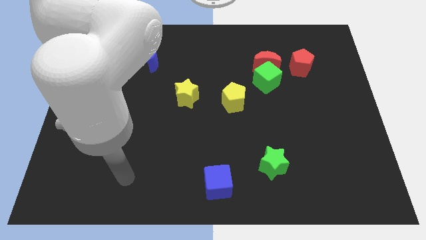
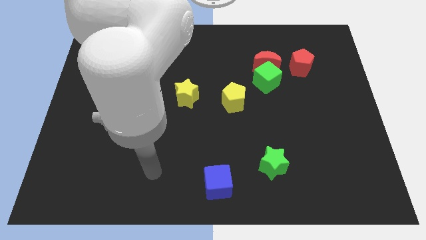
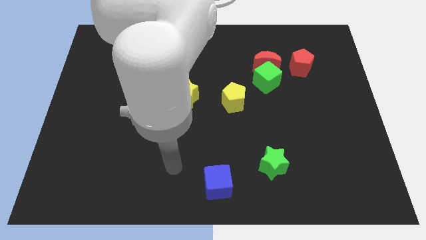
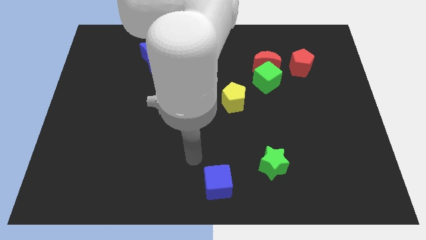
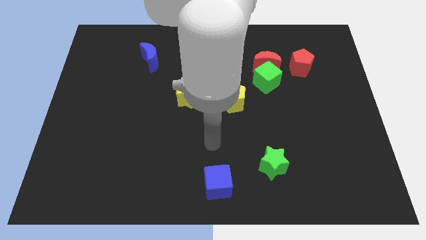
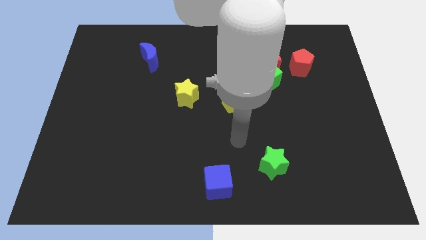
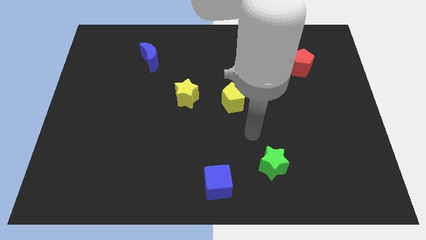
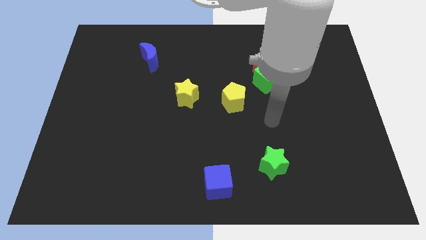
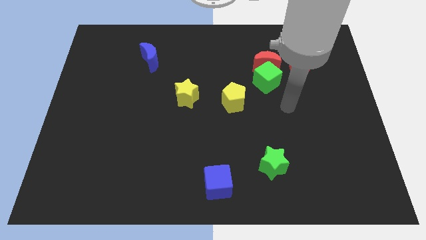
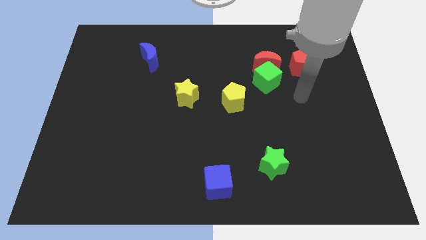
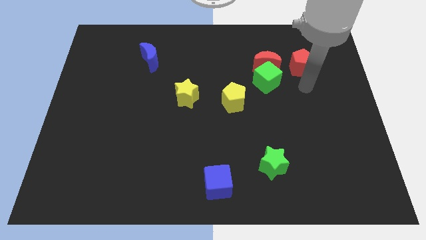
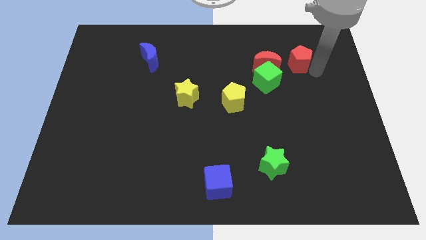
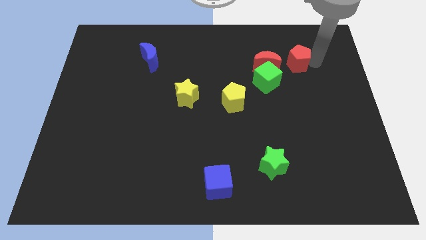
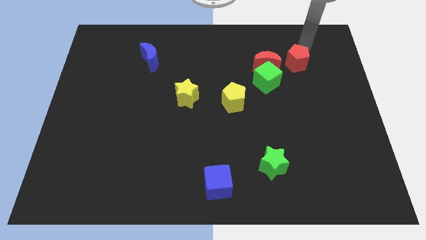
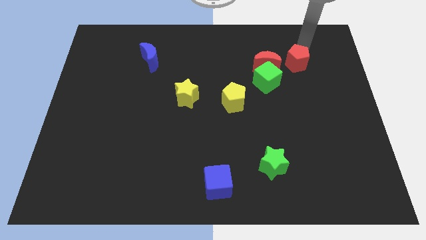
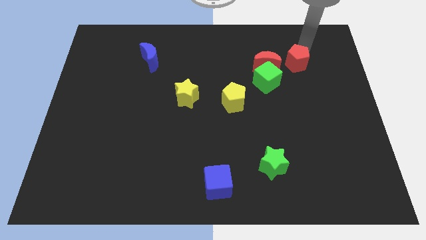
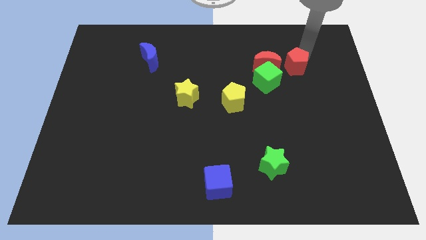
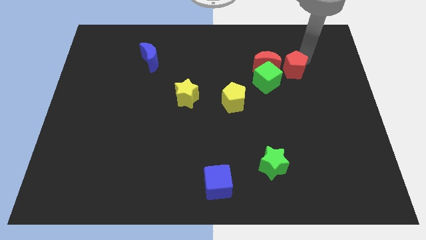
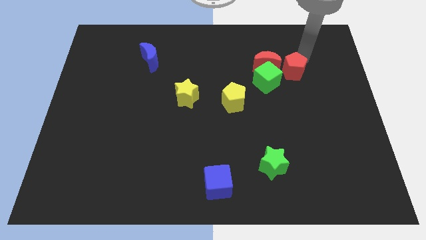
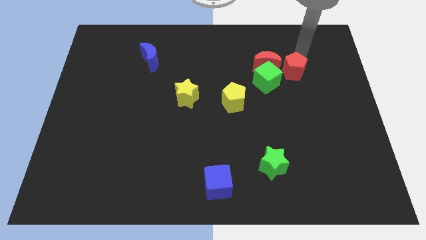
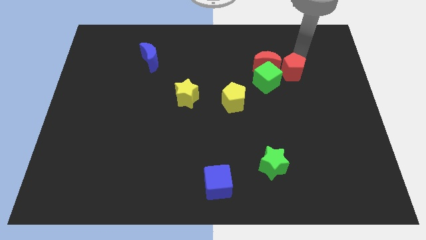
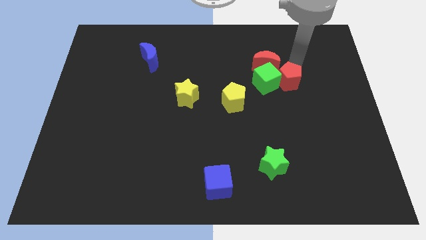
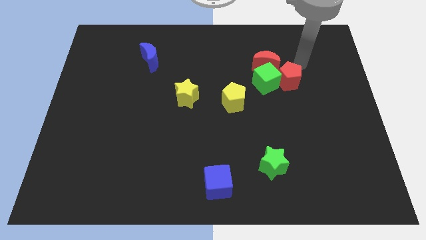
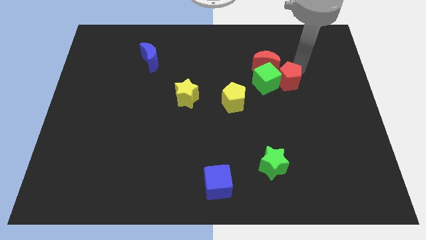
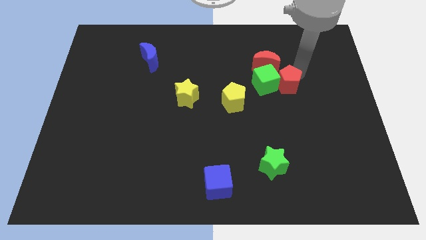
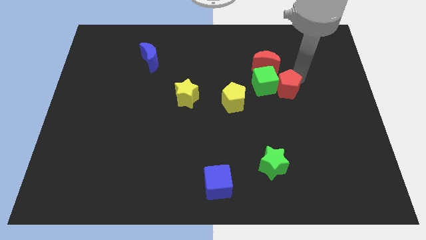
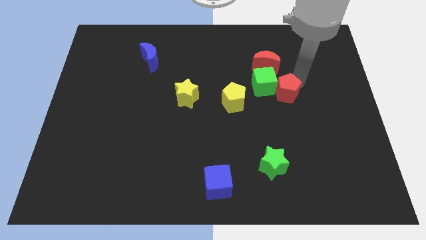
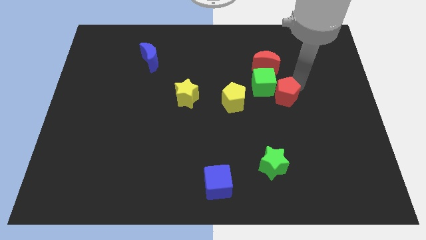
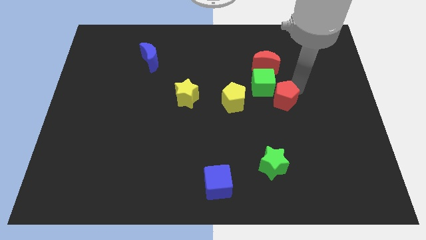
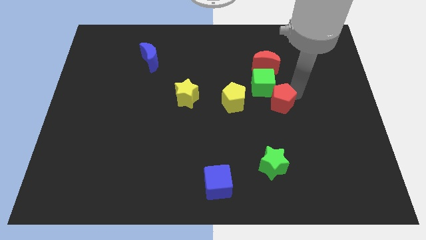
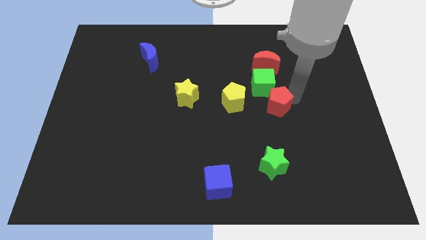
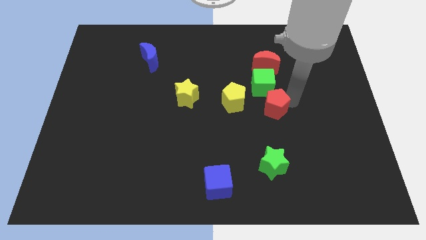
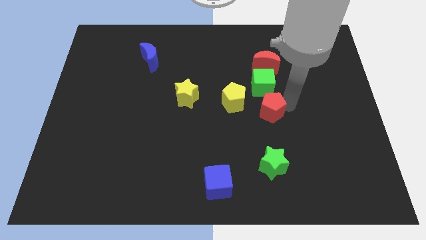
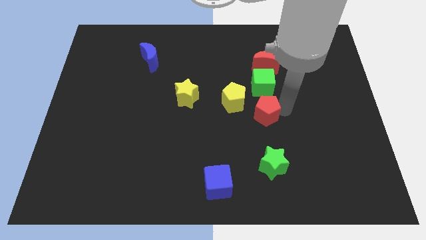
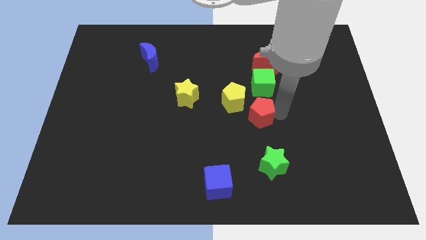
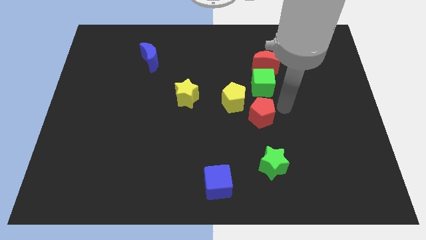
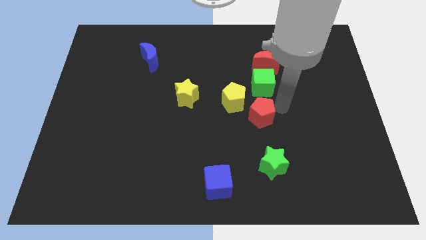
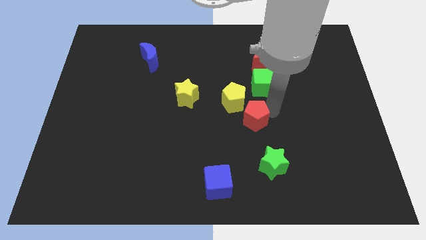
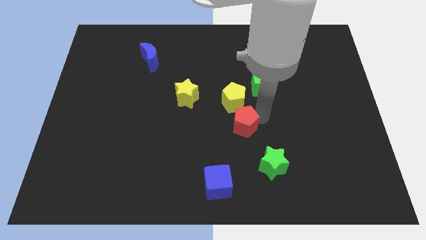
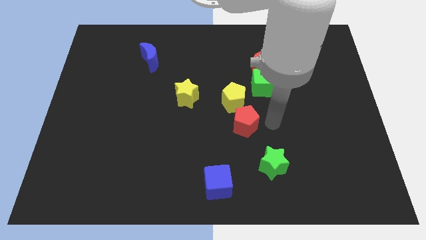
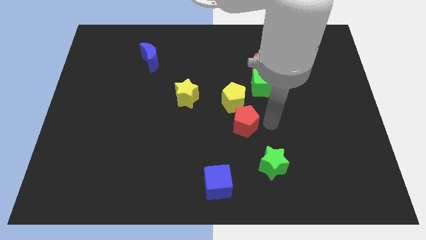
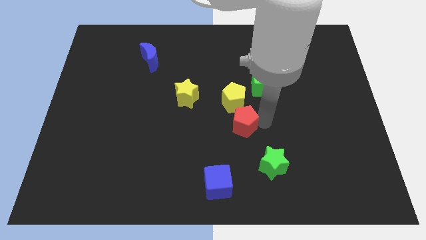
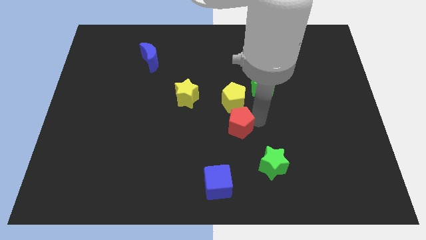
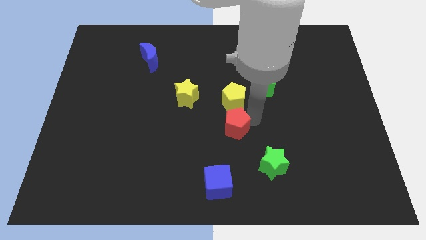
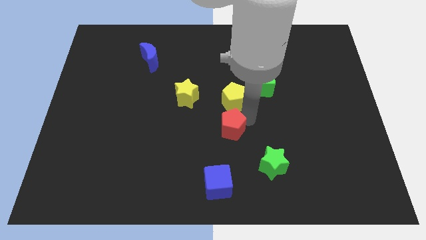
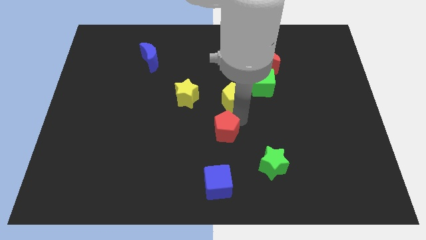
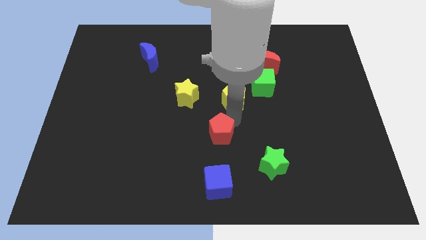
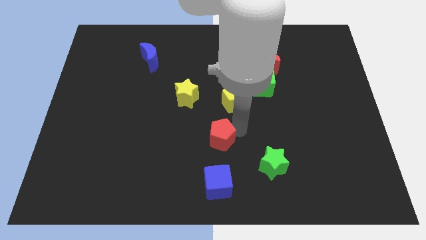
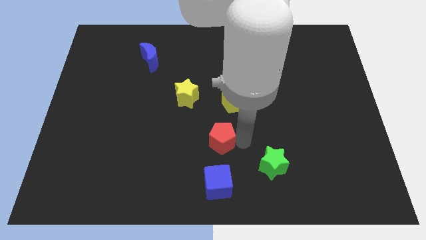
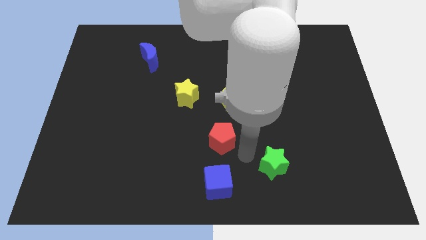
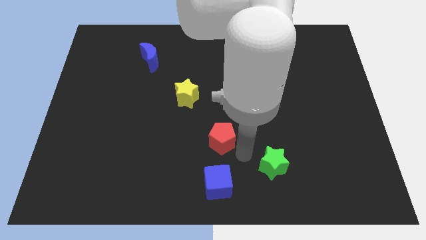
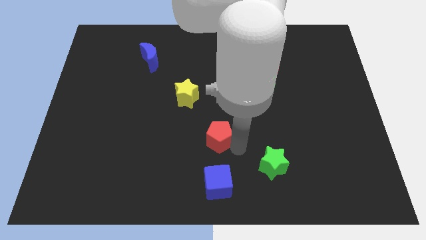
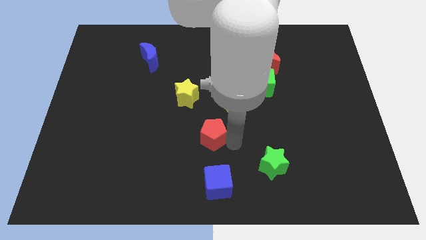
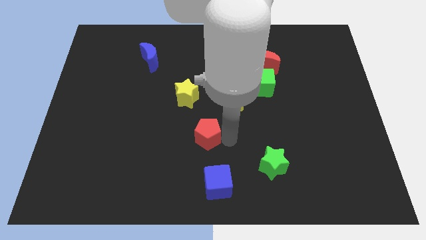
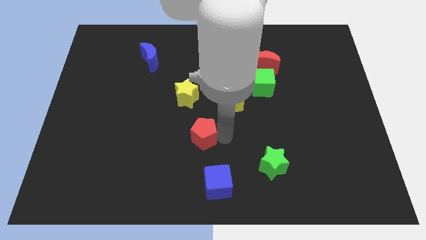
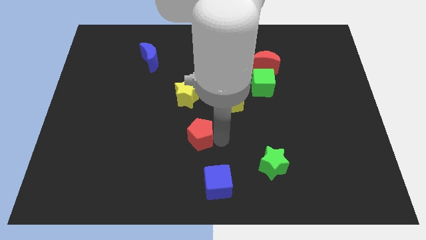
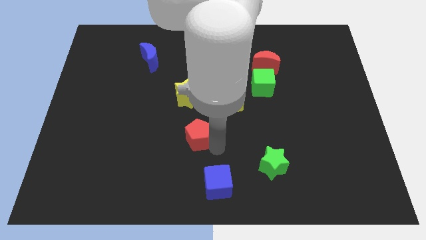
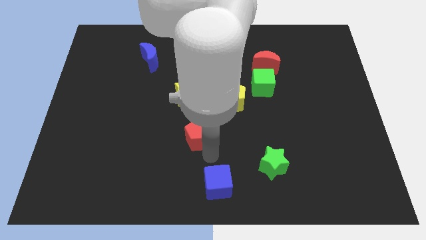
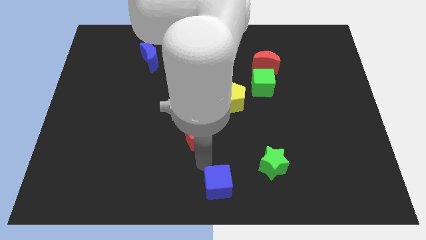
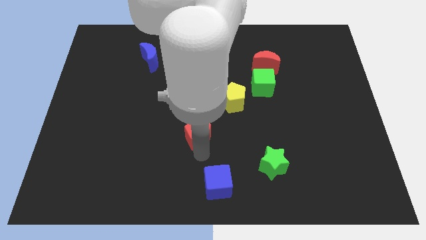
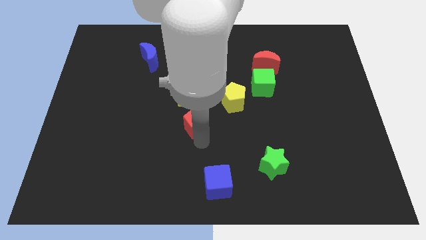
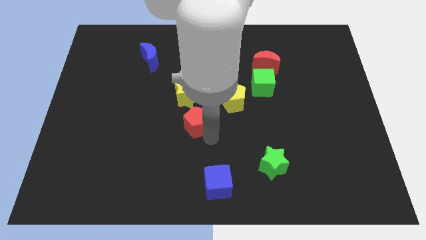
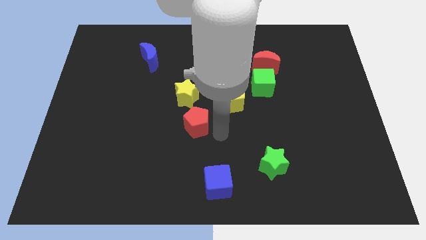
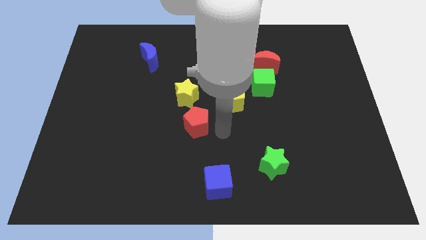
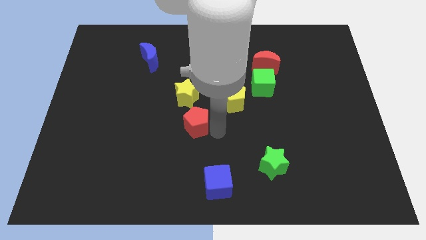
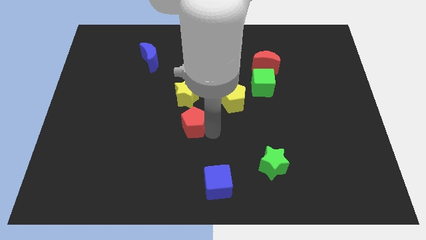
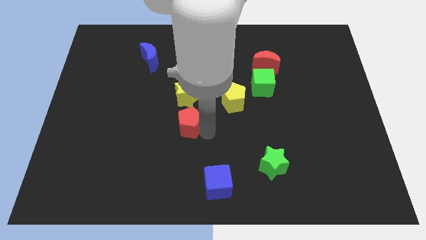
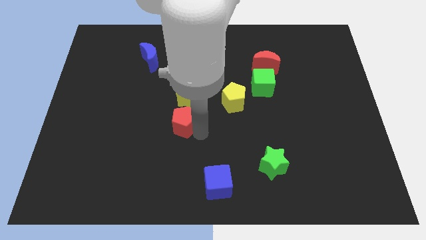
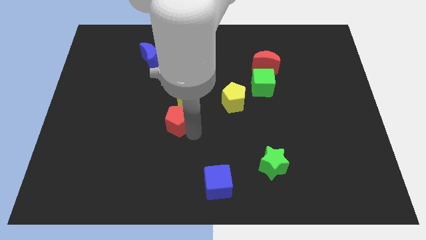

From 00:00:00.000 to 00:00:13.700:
put the red pentagon diagonally down and to the left of the yellow star
